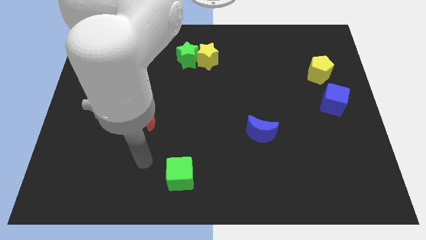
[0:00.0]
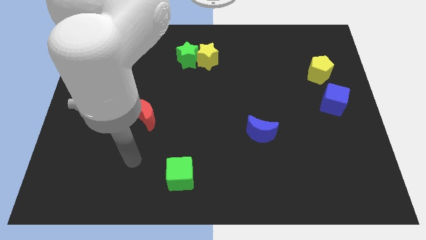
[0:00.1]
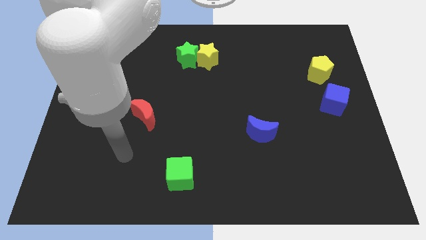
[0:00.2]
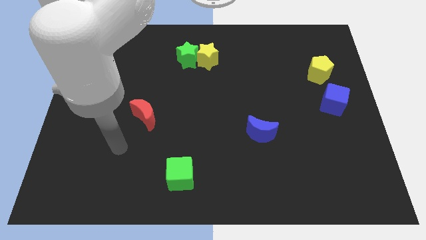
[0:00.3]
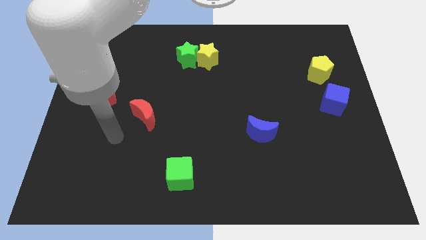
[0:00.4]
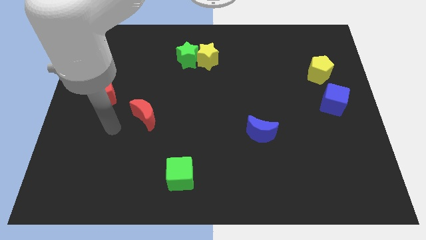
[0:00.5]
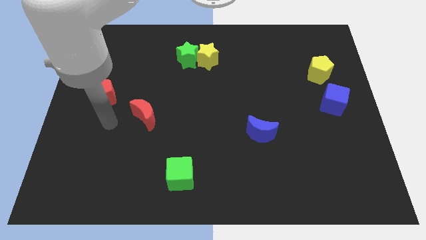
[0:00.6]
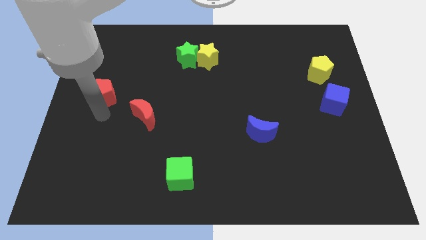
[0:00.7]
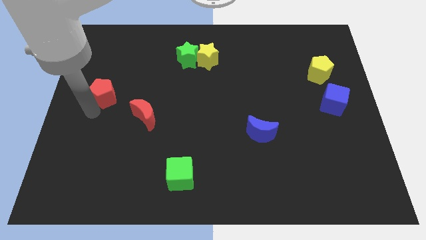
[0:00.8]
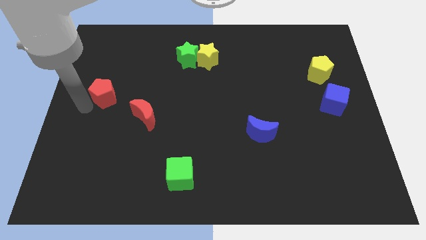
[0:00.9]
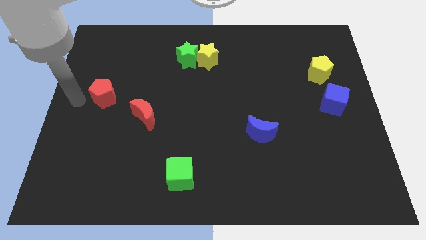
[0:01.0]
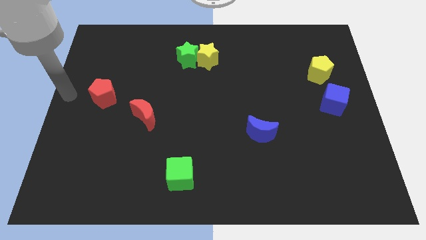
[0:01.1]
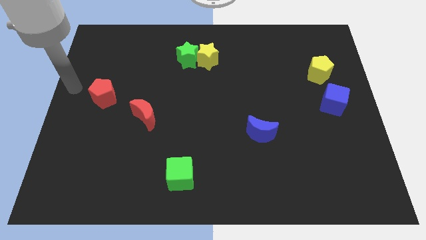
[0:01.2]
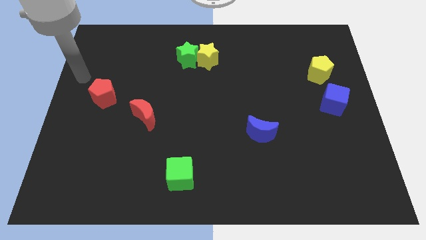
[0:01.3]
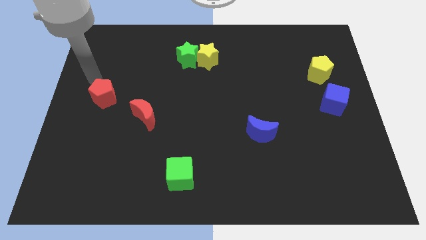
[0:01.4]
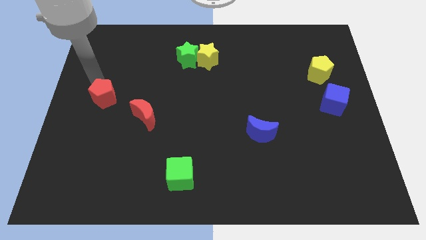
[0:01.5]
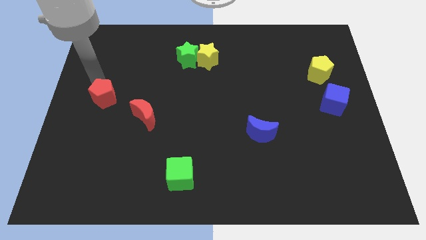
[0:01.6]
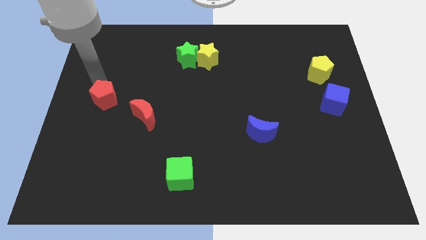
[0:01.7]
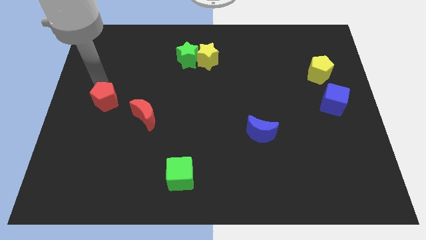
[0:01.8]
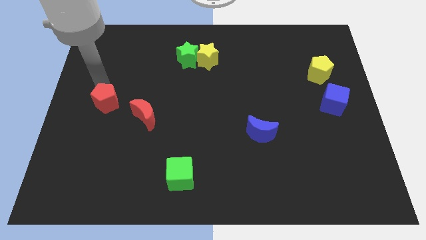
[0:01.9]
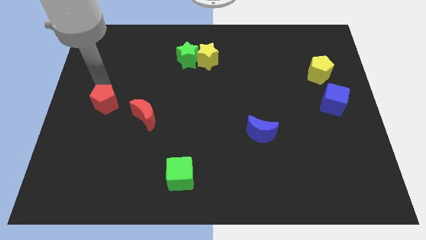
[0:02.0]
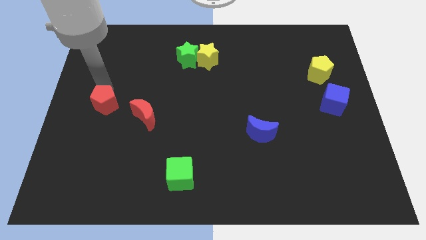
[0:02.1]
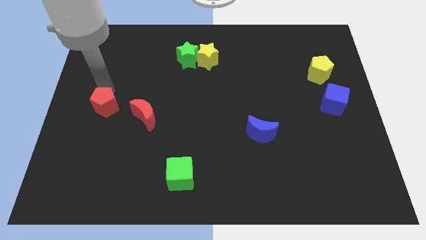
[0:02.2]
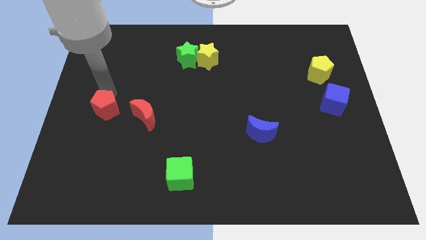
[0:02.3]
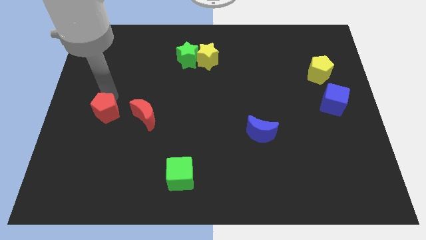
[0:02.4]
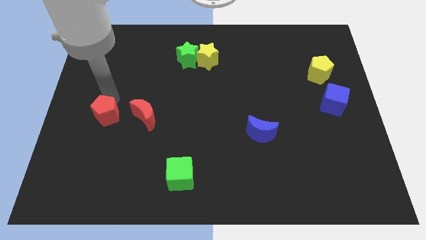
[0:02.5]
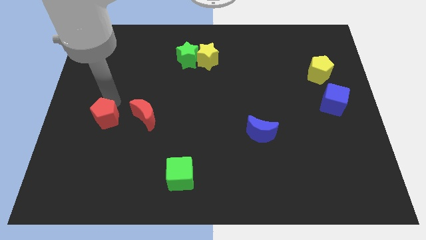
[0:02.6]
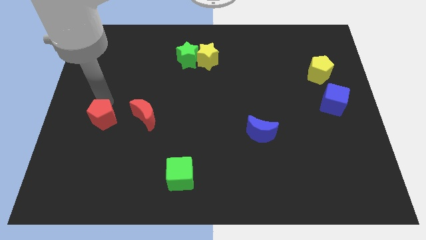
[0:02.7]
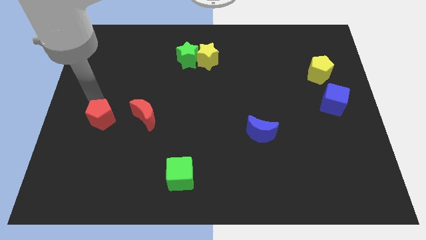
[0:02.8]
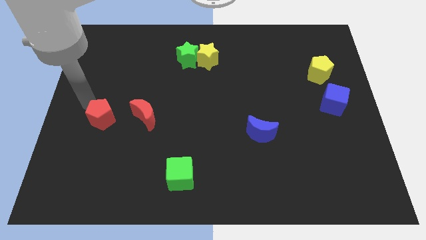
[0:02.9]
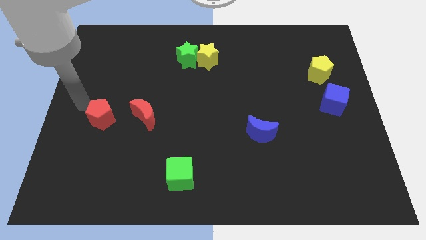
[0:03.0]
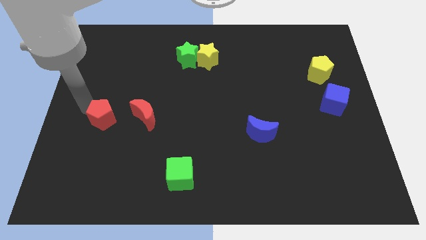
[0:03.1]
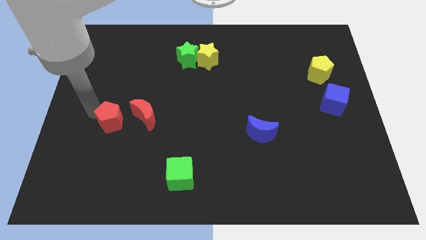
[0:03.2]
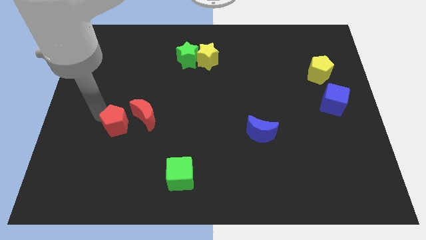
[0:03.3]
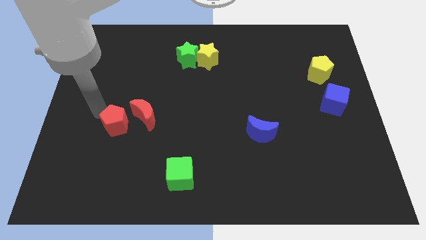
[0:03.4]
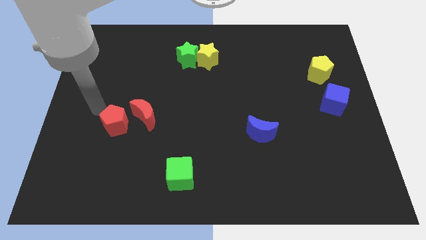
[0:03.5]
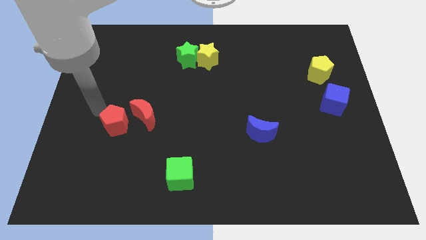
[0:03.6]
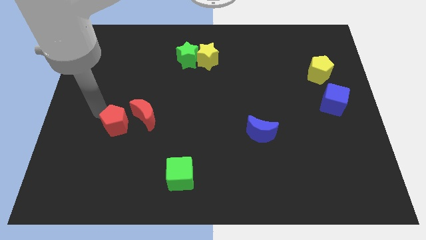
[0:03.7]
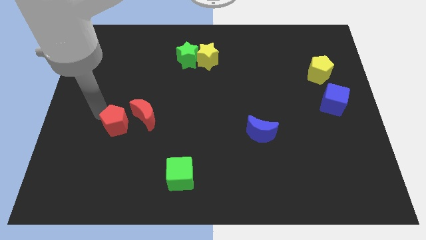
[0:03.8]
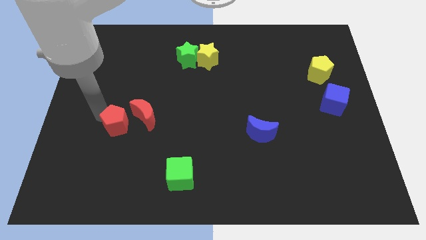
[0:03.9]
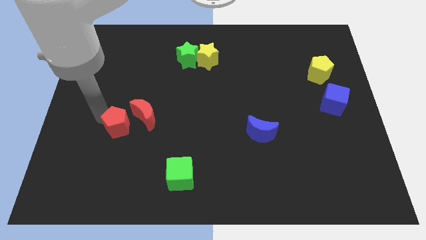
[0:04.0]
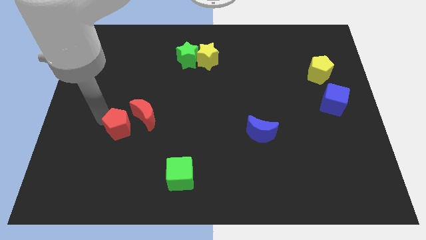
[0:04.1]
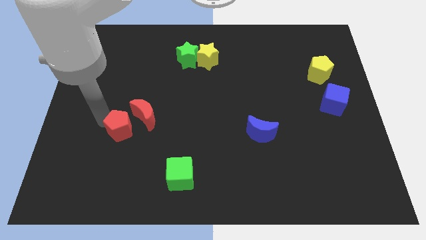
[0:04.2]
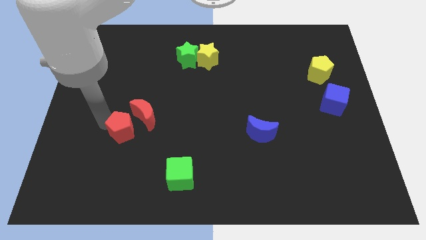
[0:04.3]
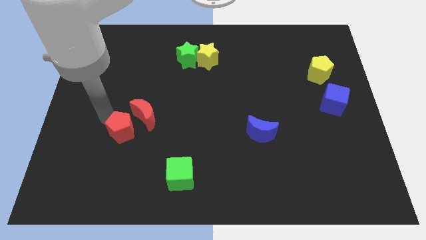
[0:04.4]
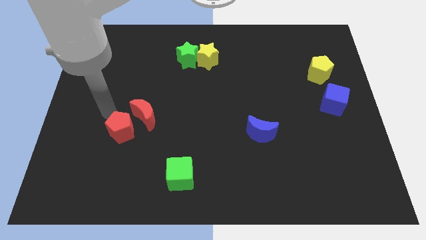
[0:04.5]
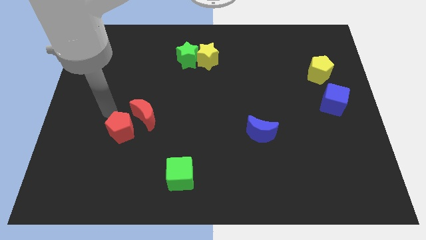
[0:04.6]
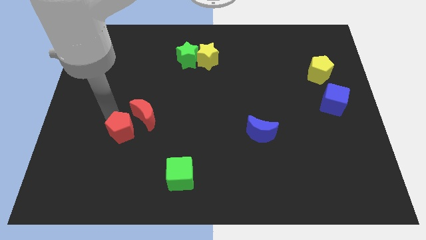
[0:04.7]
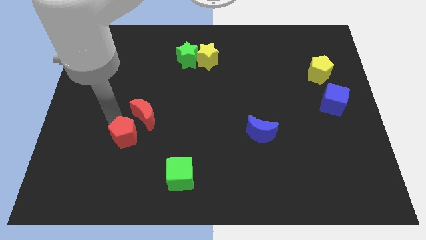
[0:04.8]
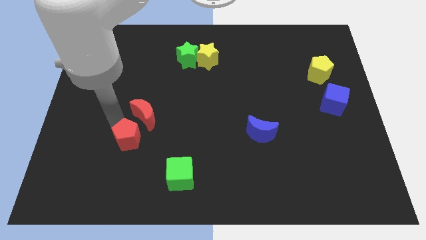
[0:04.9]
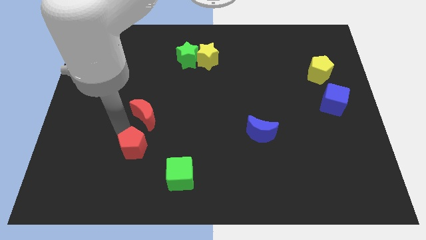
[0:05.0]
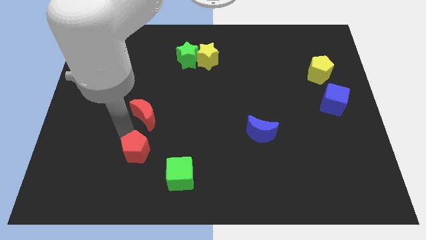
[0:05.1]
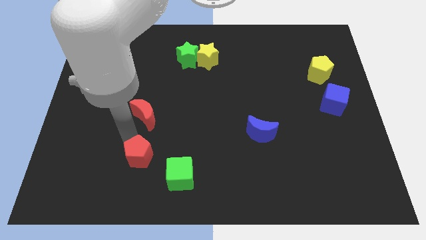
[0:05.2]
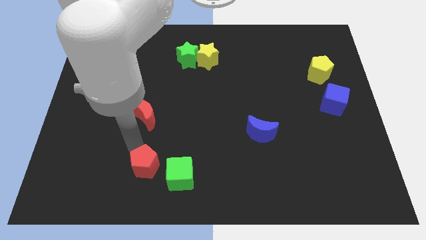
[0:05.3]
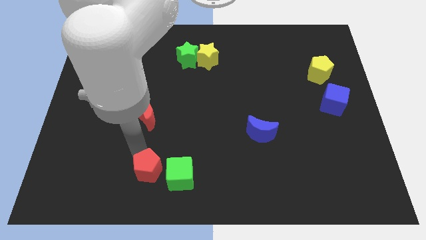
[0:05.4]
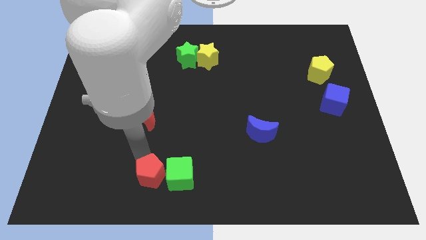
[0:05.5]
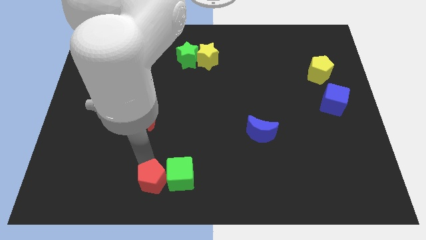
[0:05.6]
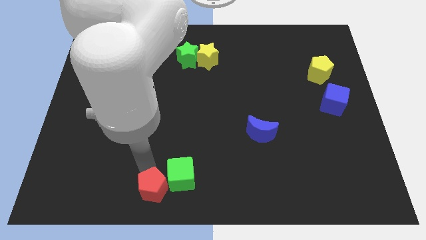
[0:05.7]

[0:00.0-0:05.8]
put the red pentagon to the bottom

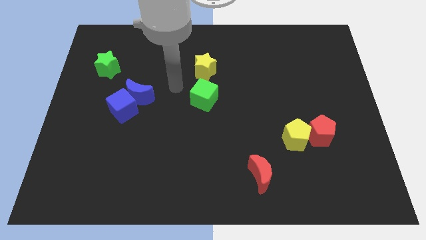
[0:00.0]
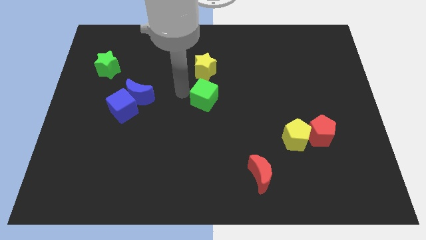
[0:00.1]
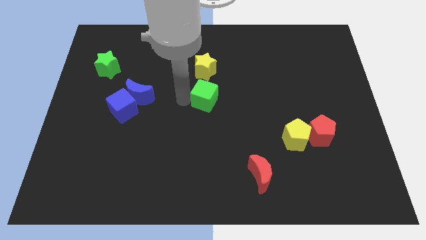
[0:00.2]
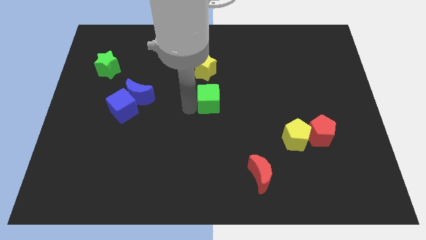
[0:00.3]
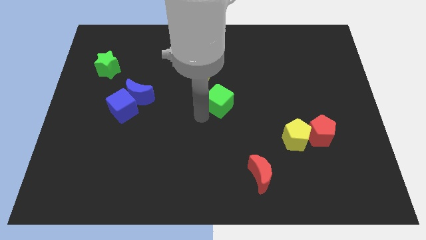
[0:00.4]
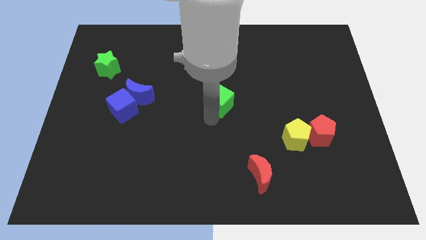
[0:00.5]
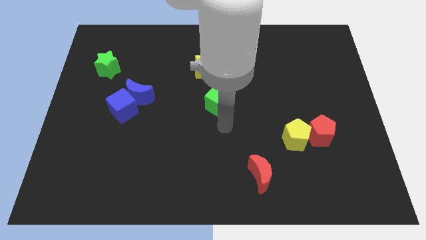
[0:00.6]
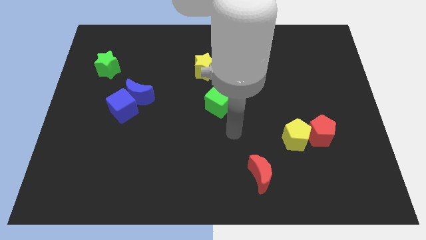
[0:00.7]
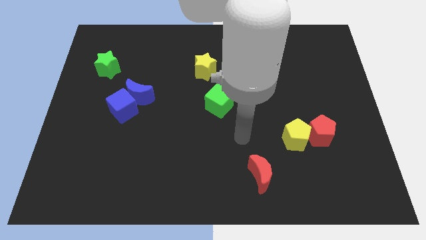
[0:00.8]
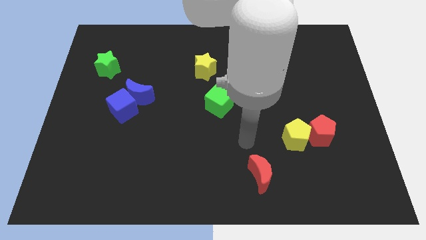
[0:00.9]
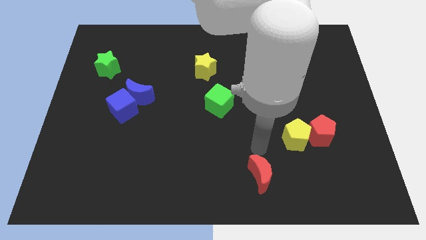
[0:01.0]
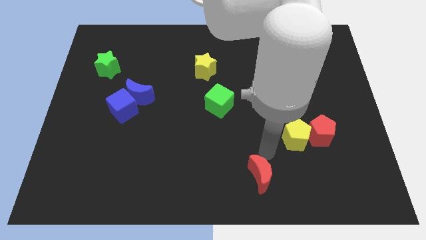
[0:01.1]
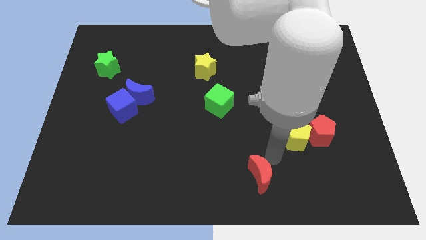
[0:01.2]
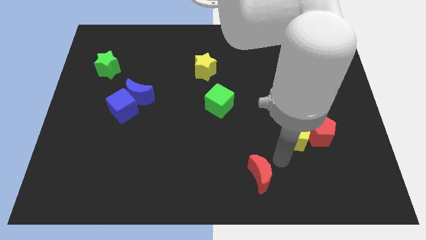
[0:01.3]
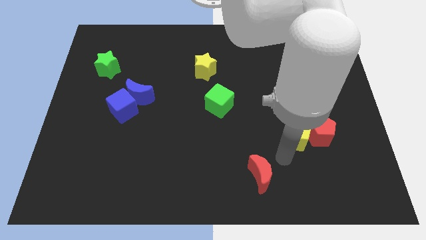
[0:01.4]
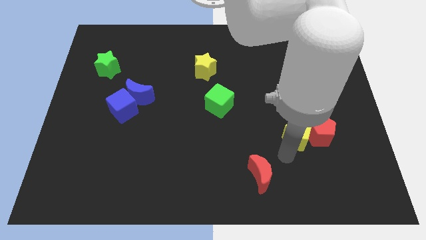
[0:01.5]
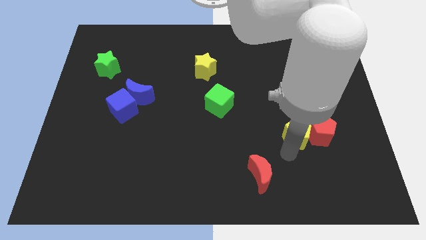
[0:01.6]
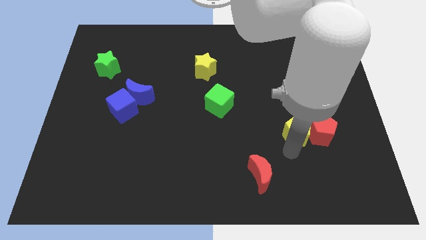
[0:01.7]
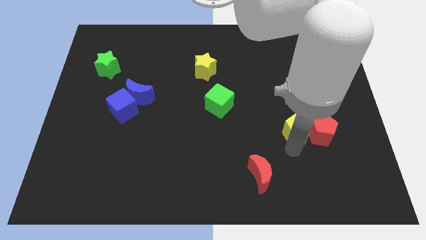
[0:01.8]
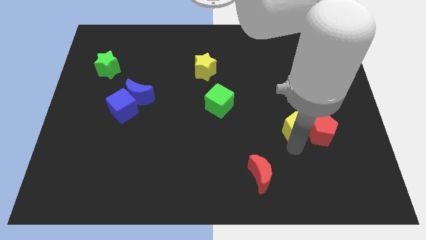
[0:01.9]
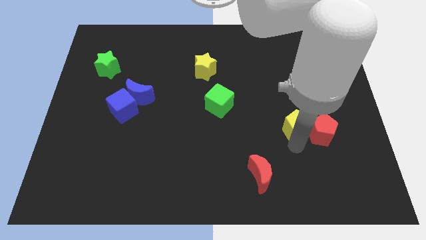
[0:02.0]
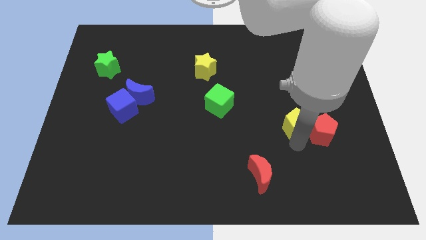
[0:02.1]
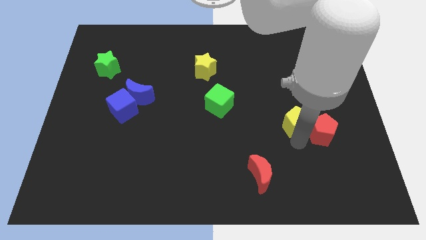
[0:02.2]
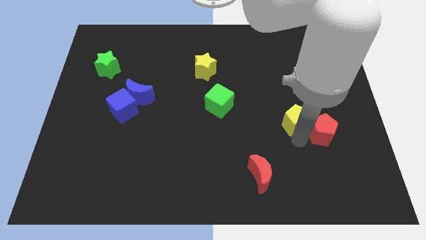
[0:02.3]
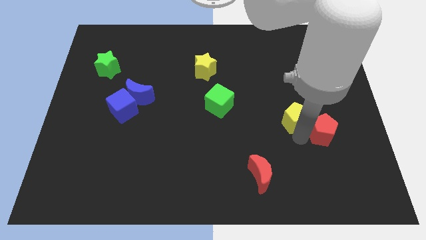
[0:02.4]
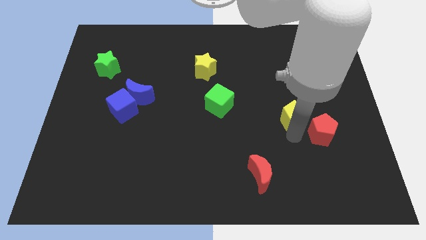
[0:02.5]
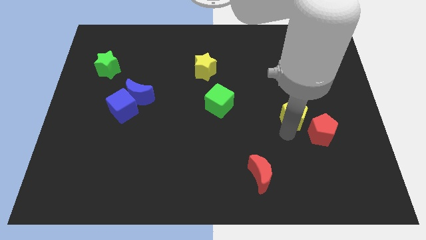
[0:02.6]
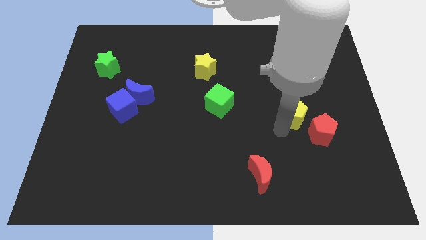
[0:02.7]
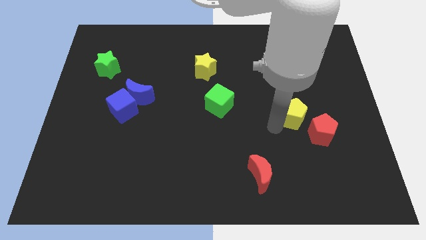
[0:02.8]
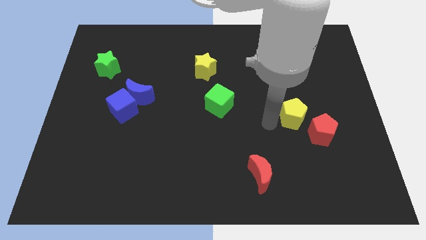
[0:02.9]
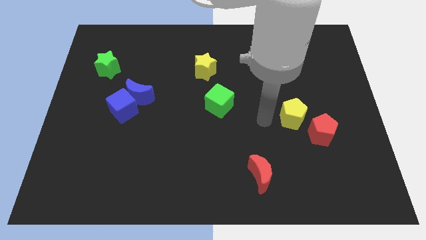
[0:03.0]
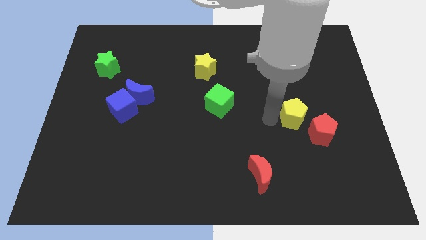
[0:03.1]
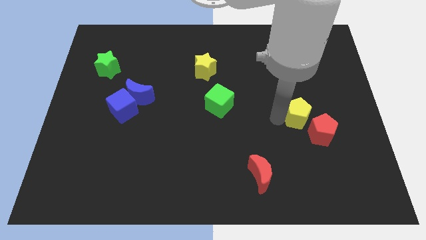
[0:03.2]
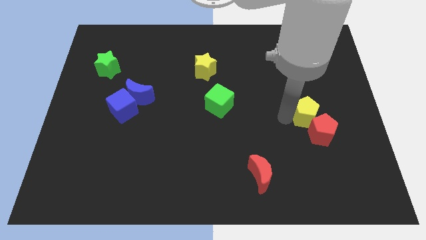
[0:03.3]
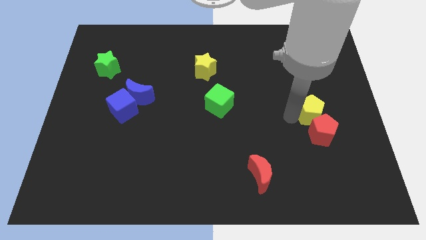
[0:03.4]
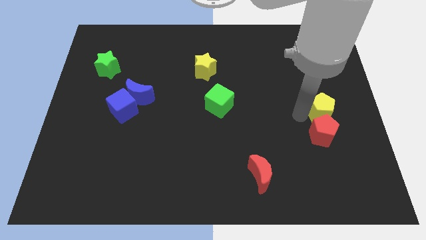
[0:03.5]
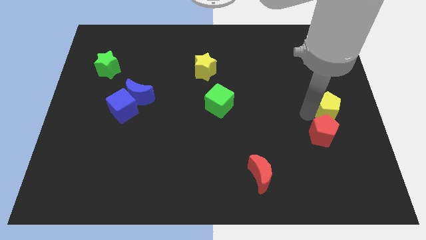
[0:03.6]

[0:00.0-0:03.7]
move the yellow pentagon to the right side of the board
